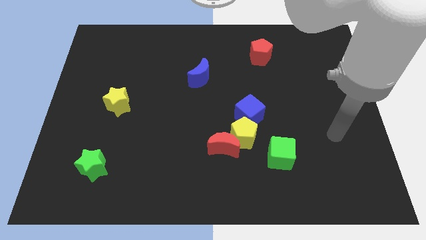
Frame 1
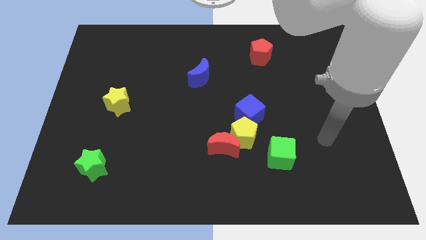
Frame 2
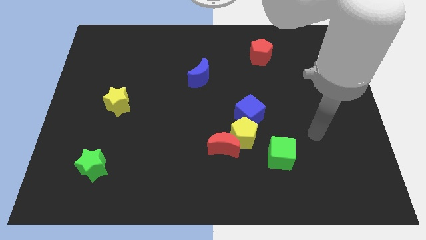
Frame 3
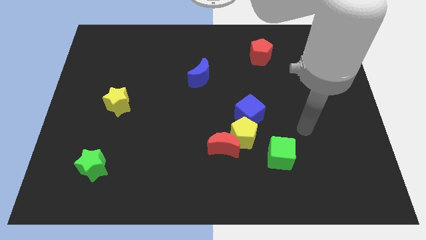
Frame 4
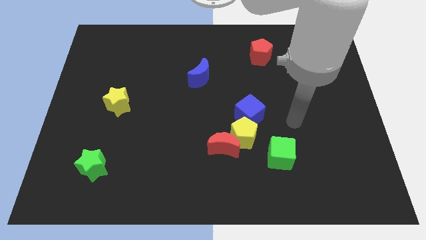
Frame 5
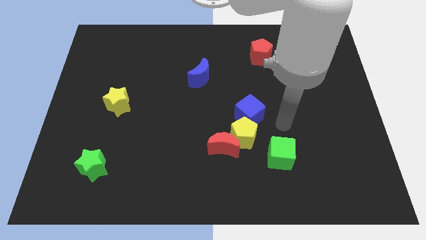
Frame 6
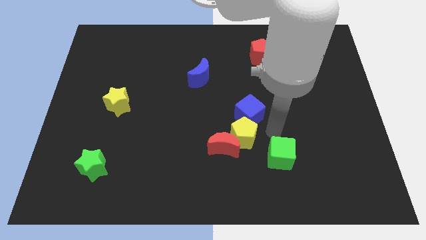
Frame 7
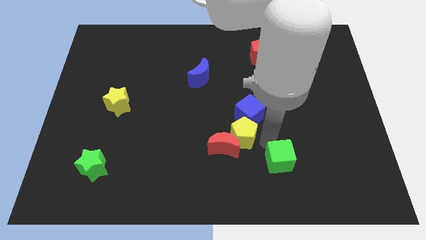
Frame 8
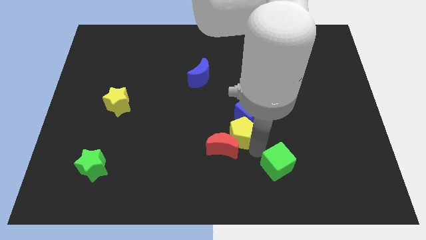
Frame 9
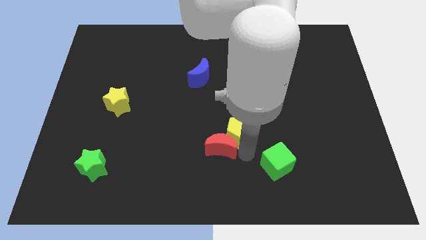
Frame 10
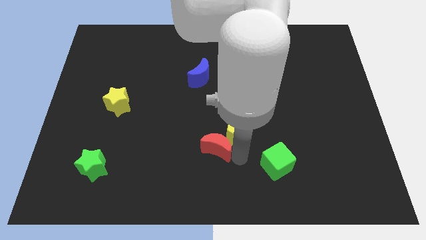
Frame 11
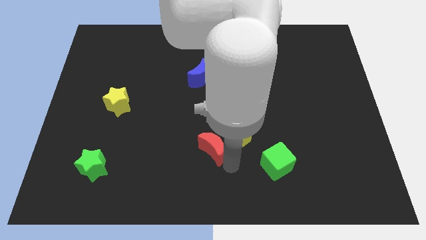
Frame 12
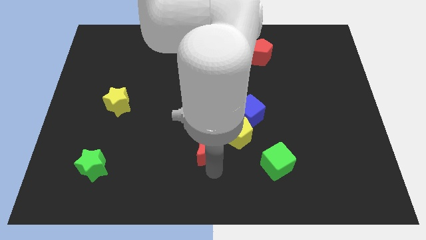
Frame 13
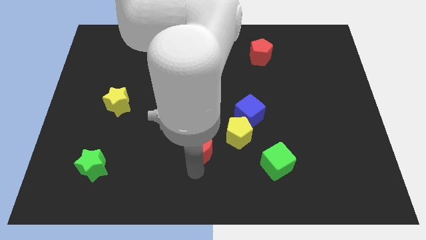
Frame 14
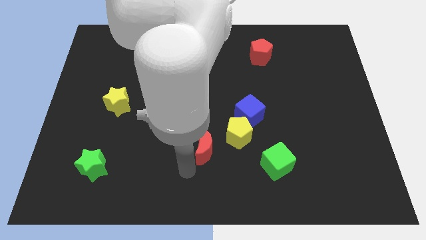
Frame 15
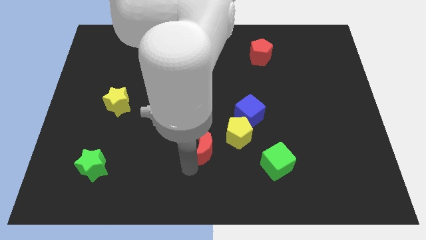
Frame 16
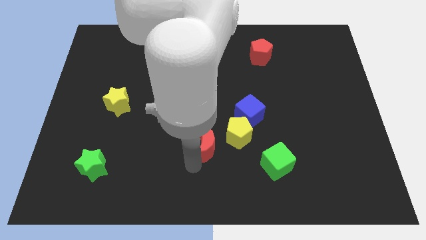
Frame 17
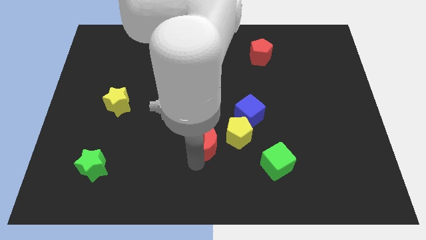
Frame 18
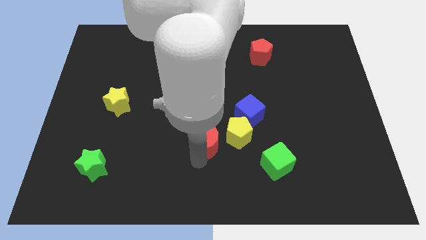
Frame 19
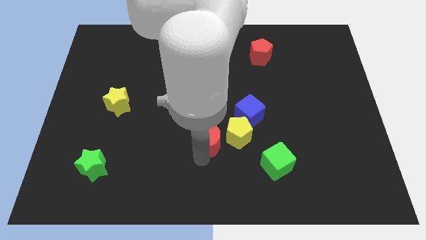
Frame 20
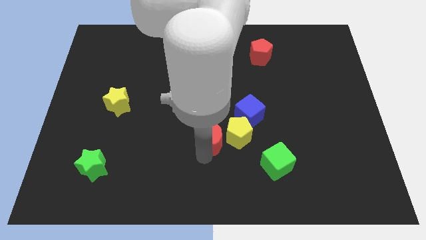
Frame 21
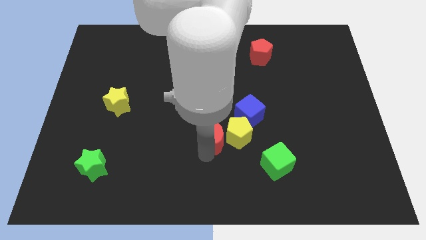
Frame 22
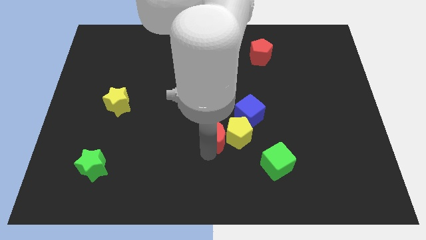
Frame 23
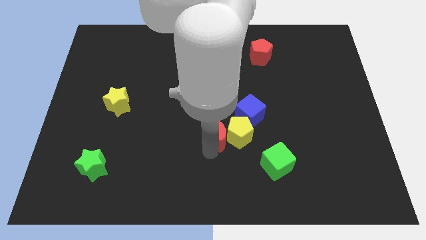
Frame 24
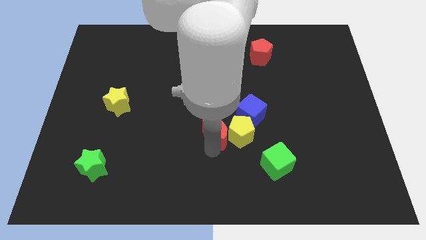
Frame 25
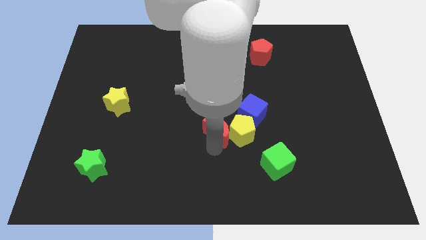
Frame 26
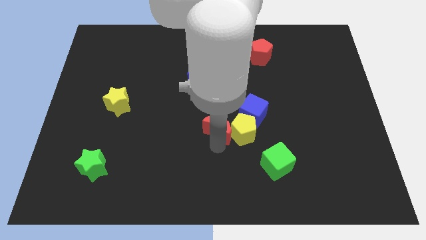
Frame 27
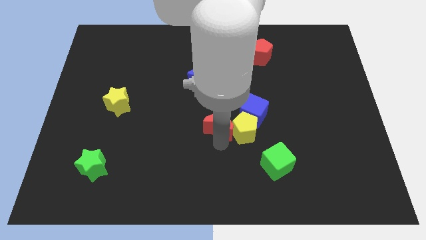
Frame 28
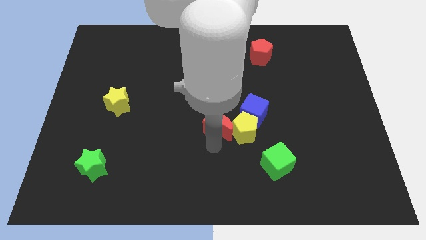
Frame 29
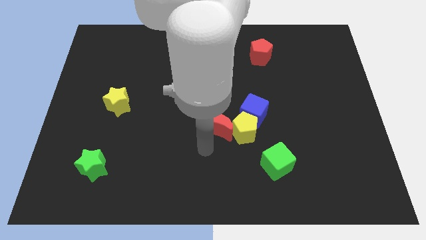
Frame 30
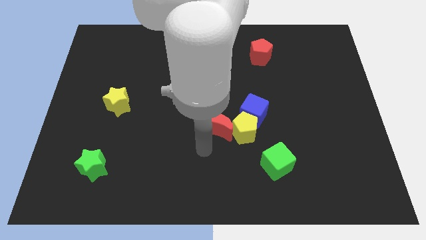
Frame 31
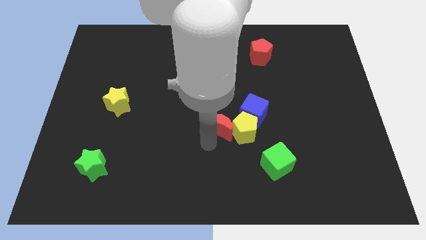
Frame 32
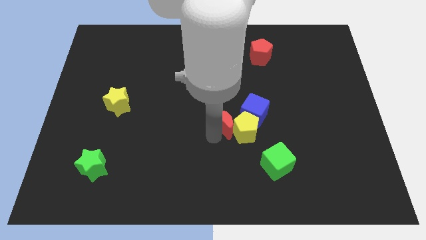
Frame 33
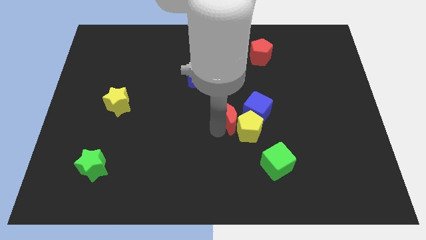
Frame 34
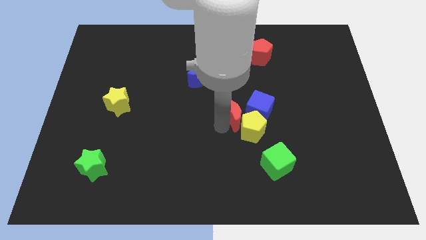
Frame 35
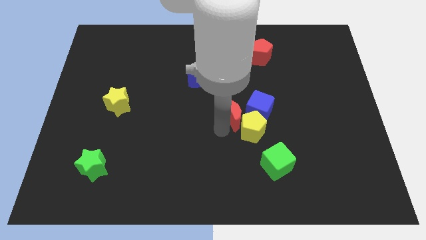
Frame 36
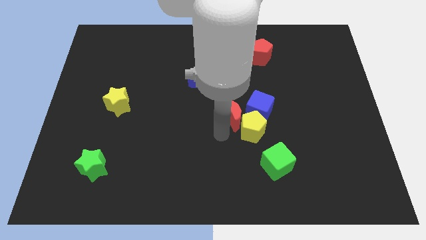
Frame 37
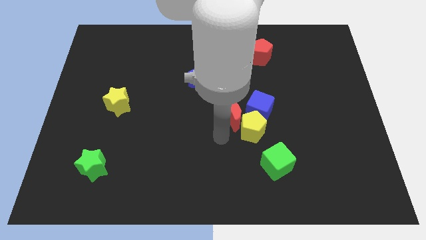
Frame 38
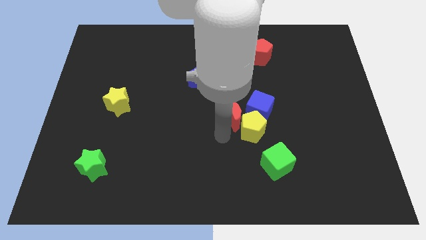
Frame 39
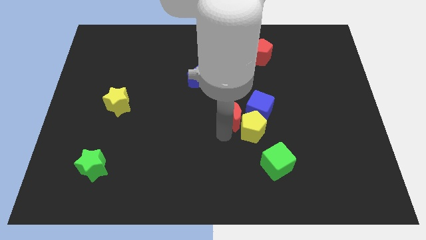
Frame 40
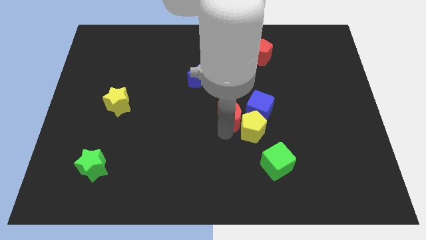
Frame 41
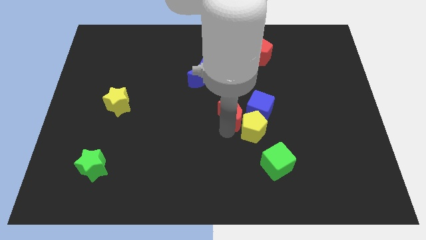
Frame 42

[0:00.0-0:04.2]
slide the red moon a little bit diagonally up and to the right

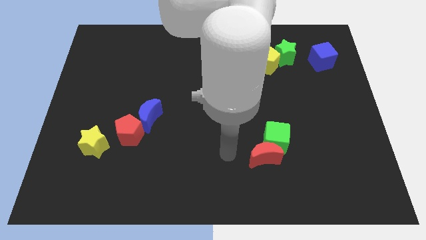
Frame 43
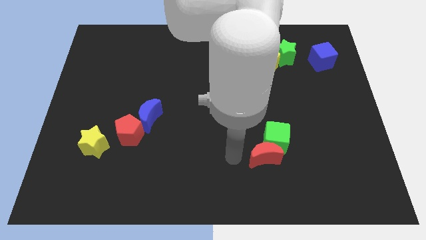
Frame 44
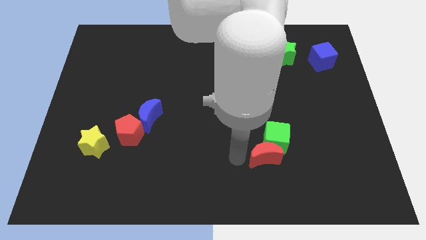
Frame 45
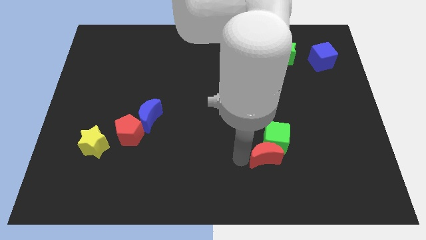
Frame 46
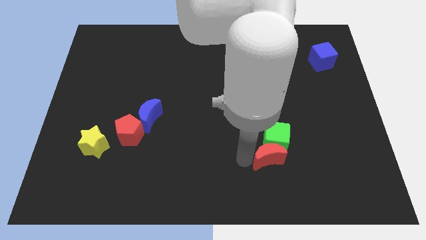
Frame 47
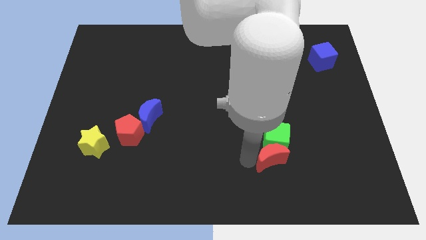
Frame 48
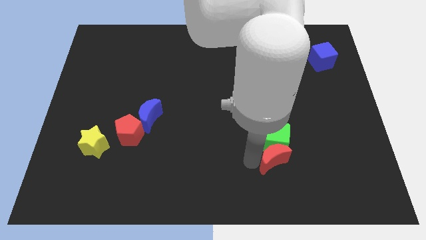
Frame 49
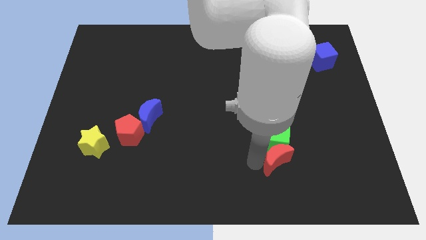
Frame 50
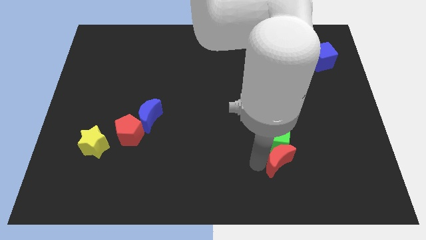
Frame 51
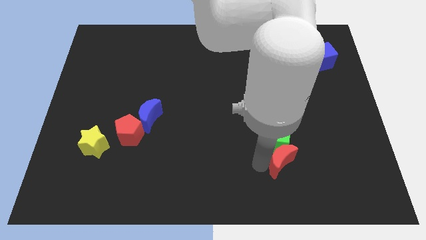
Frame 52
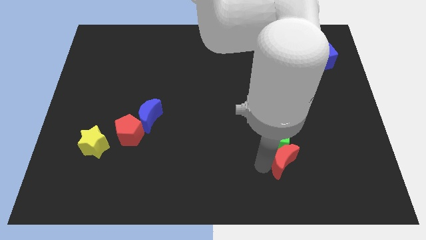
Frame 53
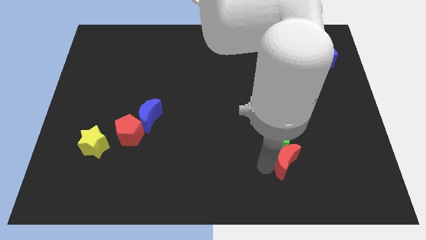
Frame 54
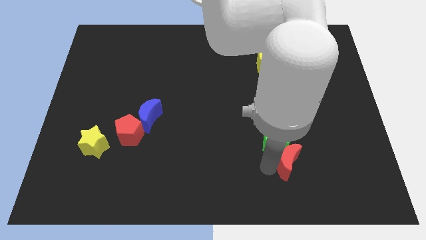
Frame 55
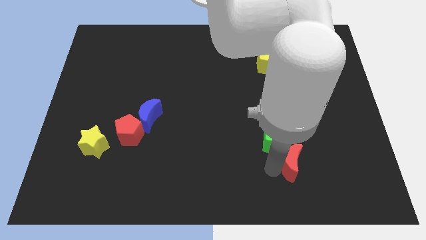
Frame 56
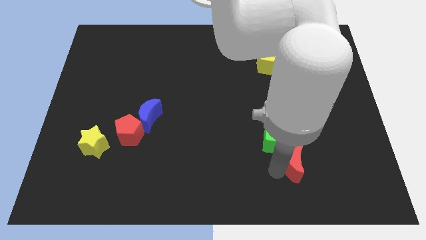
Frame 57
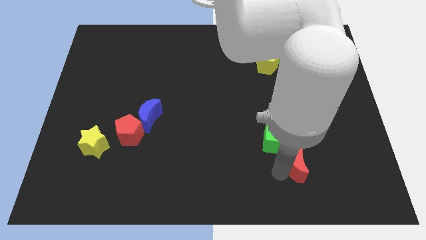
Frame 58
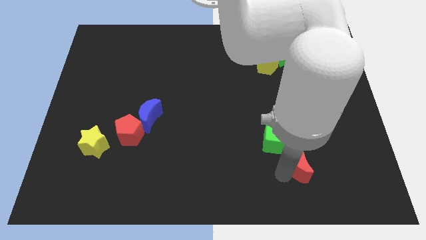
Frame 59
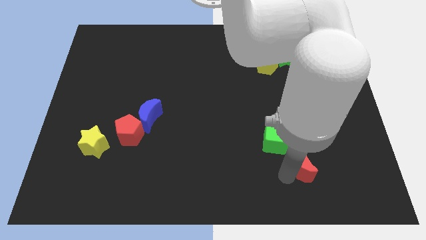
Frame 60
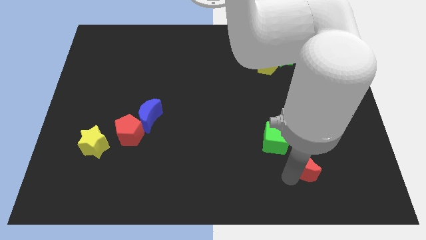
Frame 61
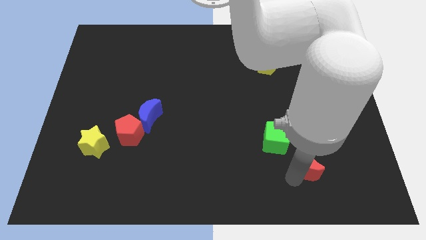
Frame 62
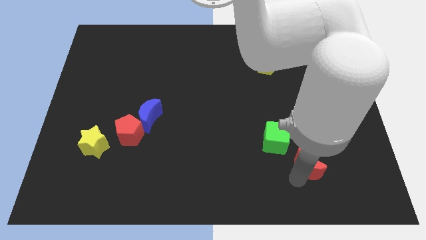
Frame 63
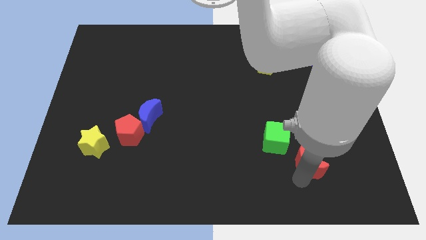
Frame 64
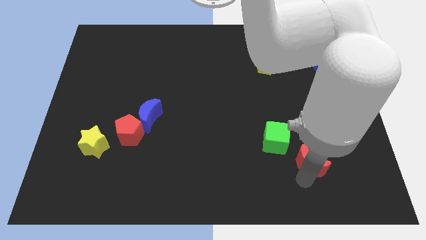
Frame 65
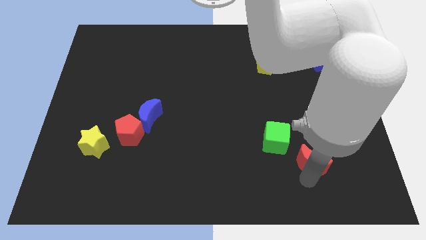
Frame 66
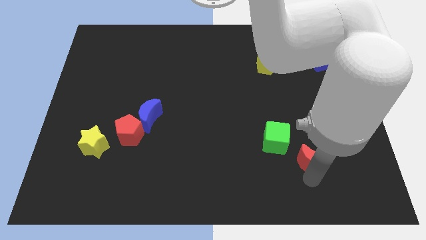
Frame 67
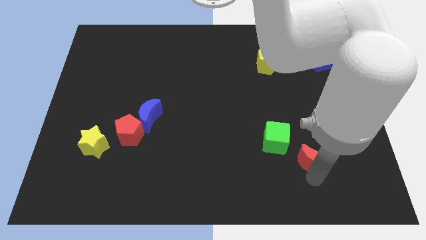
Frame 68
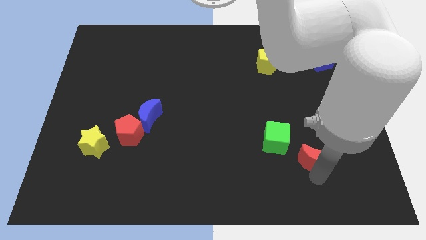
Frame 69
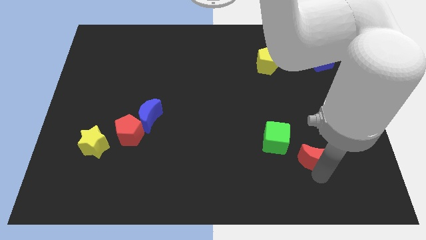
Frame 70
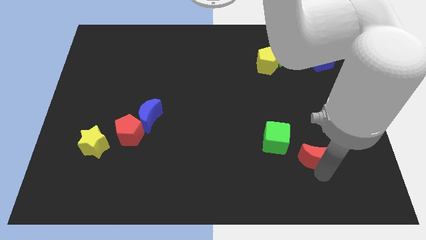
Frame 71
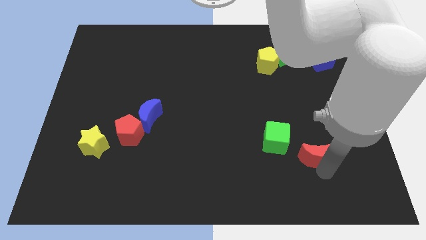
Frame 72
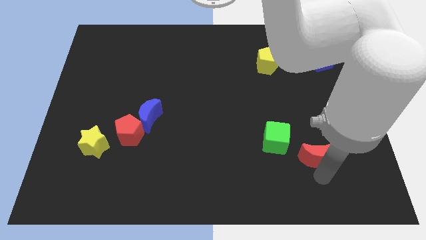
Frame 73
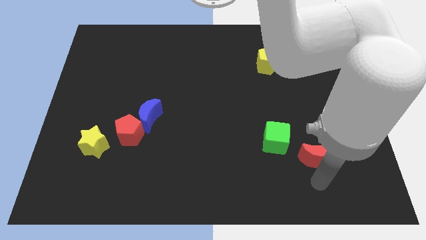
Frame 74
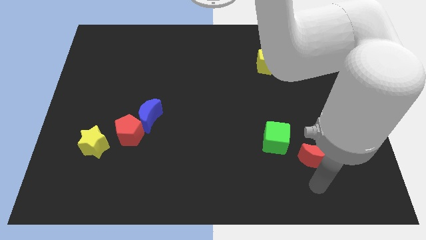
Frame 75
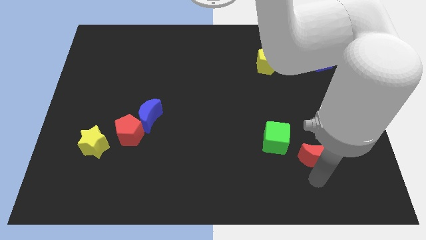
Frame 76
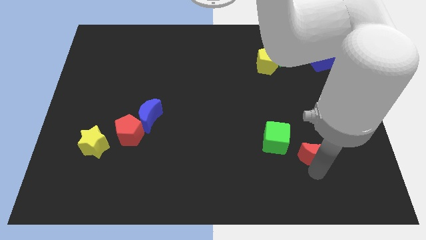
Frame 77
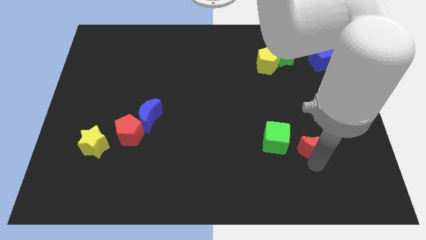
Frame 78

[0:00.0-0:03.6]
slightly move the red moon diagonally upwards and right

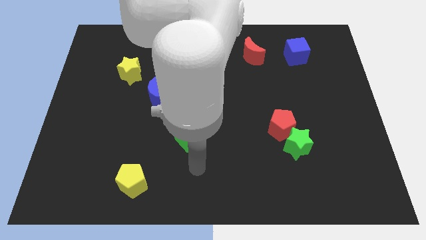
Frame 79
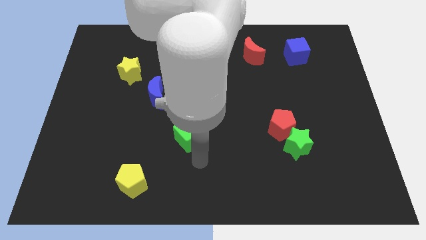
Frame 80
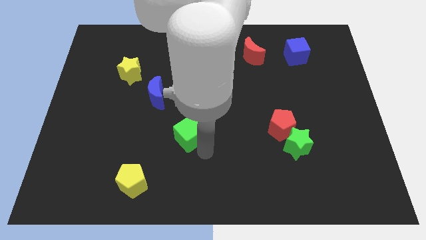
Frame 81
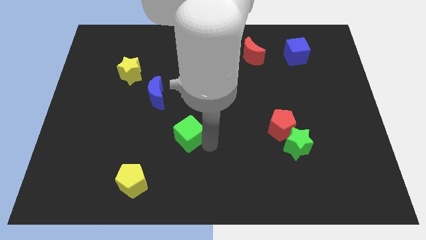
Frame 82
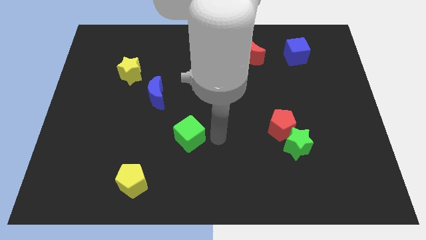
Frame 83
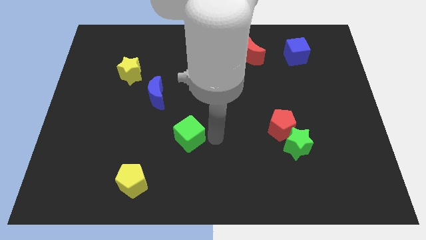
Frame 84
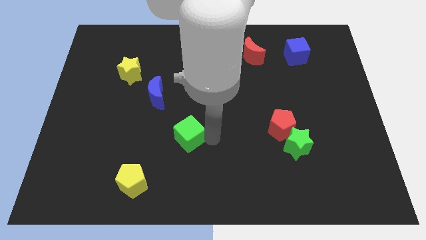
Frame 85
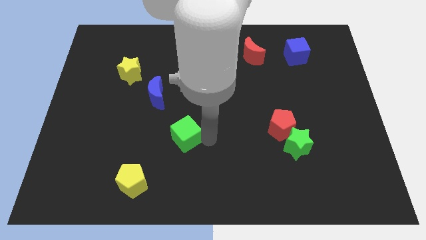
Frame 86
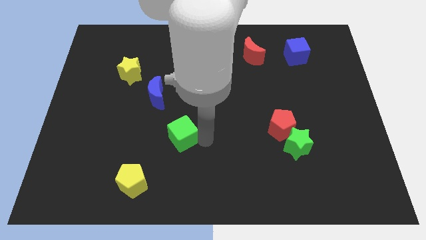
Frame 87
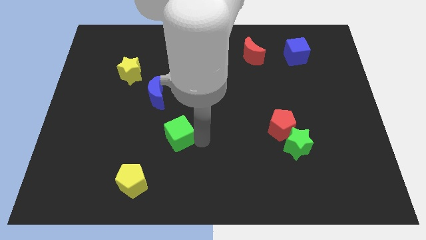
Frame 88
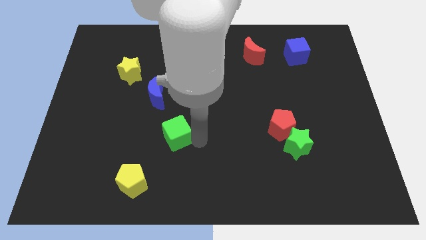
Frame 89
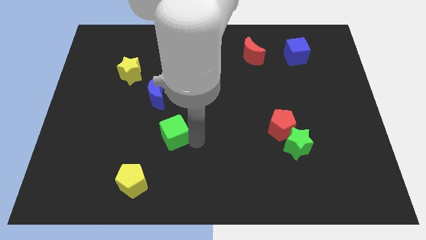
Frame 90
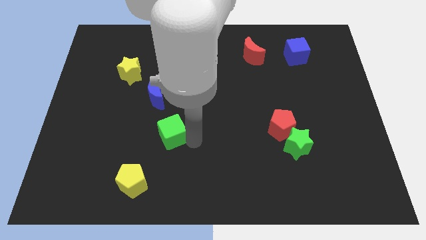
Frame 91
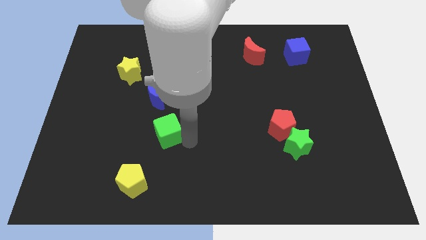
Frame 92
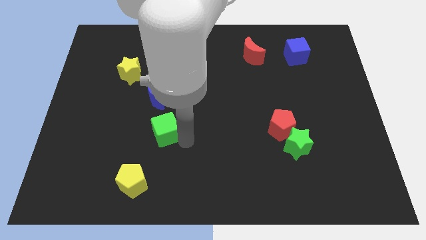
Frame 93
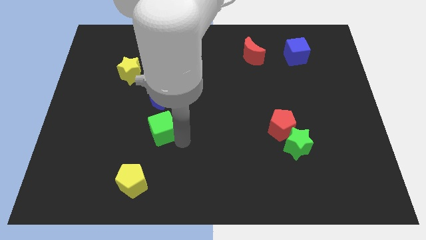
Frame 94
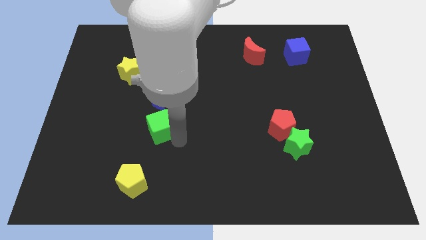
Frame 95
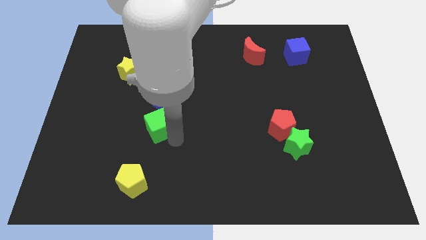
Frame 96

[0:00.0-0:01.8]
push the green cube to the left a little bit
